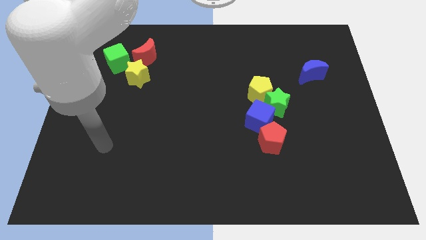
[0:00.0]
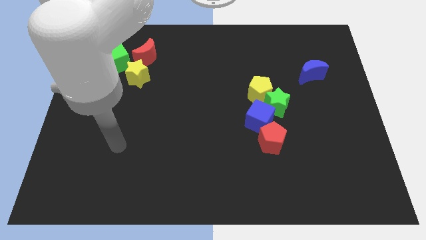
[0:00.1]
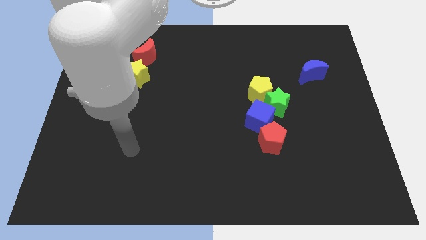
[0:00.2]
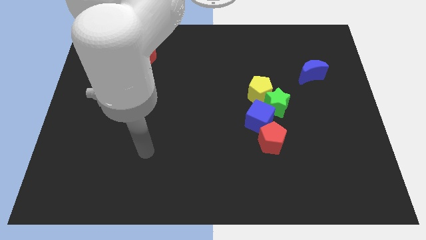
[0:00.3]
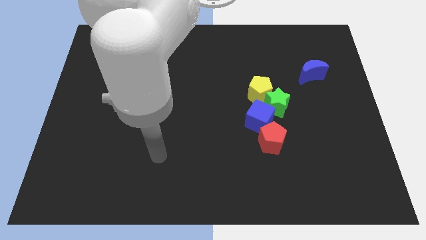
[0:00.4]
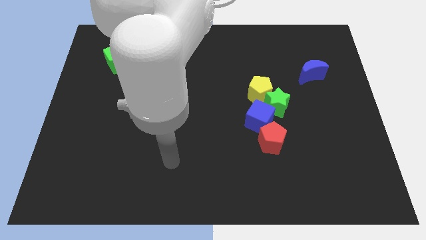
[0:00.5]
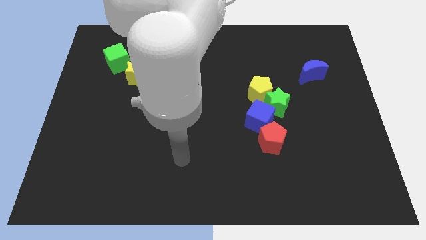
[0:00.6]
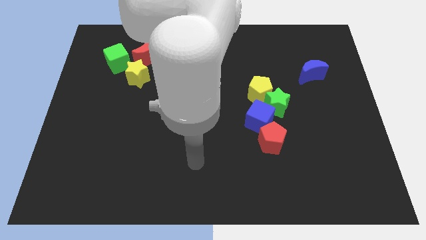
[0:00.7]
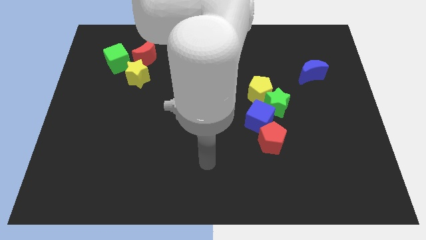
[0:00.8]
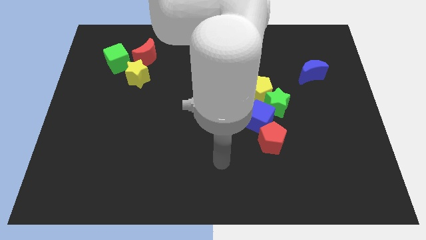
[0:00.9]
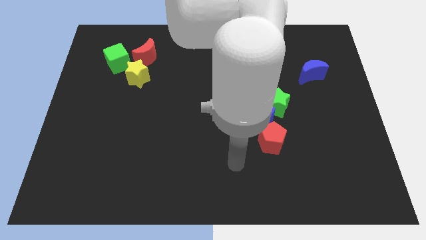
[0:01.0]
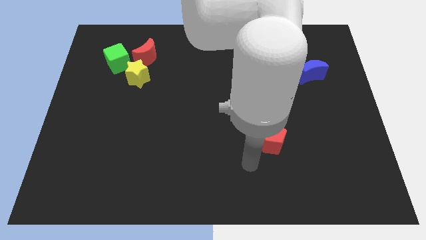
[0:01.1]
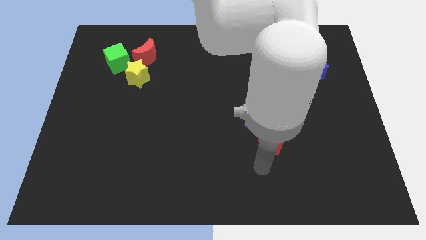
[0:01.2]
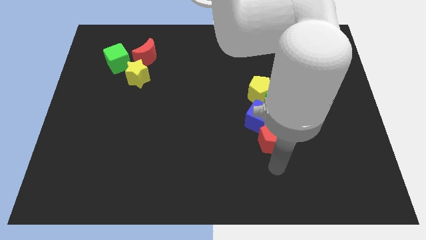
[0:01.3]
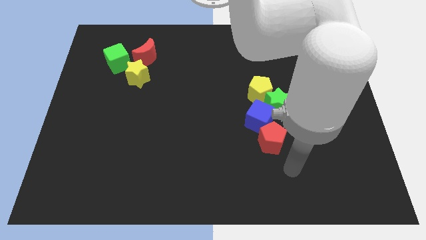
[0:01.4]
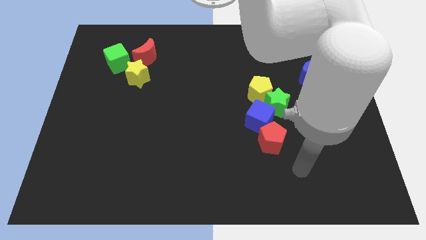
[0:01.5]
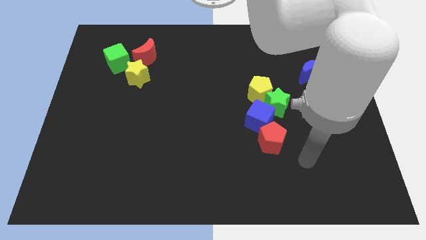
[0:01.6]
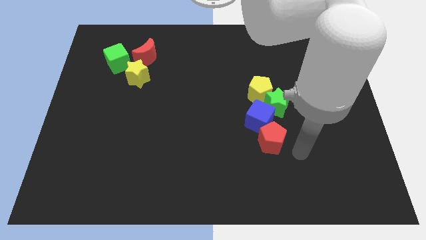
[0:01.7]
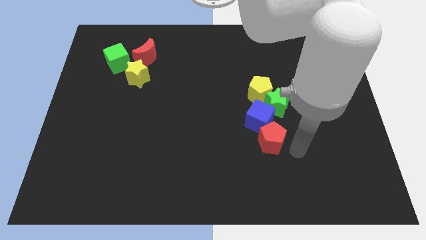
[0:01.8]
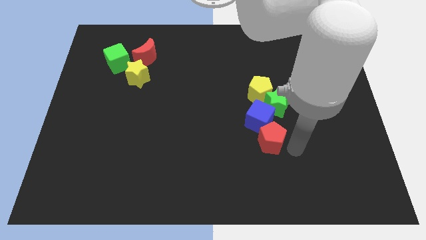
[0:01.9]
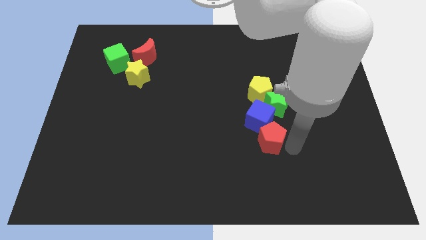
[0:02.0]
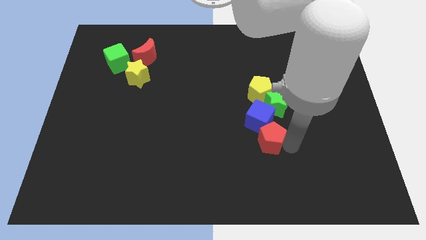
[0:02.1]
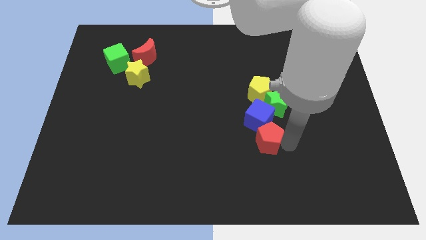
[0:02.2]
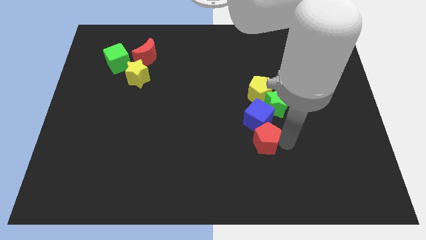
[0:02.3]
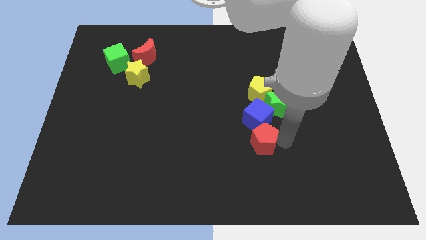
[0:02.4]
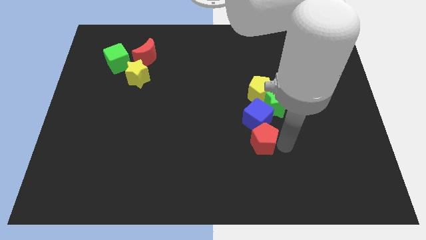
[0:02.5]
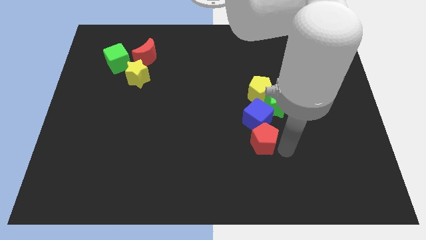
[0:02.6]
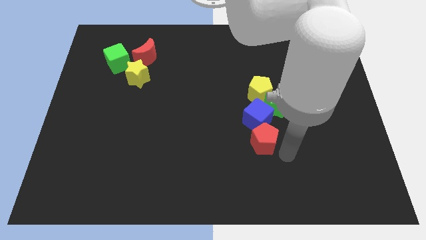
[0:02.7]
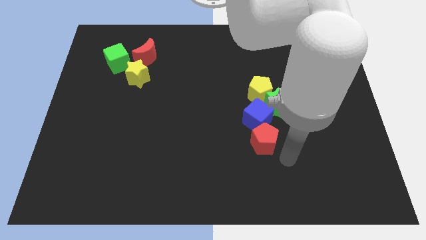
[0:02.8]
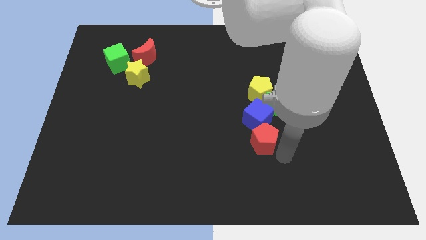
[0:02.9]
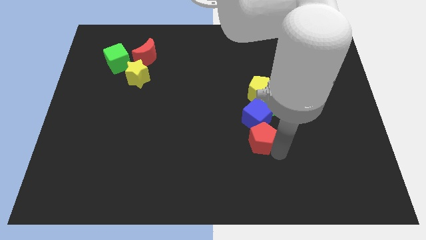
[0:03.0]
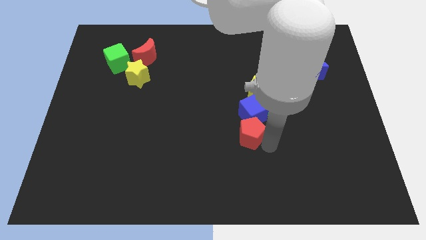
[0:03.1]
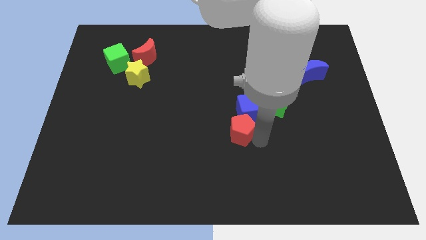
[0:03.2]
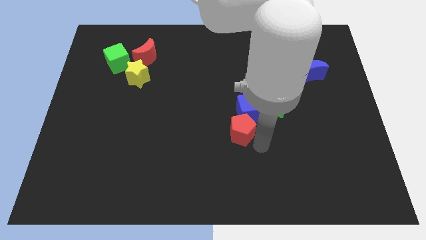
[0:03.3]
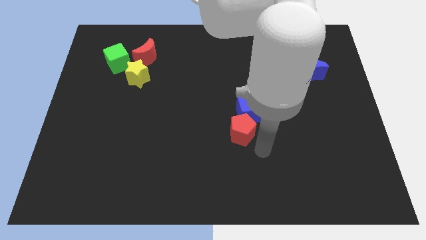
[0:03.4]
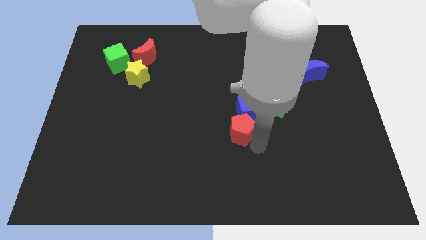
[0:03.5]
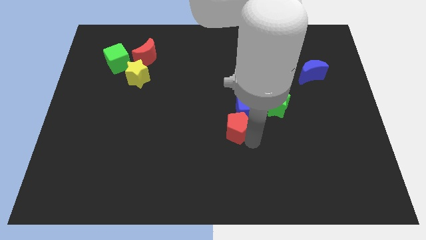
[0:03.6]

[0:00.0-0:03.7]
slightly move the red pentagon upwards and left

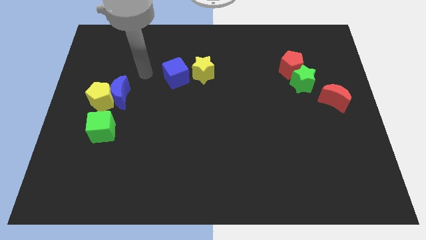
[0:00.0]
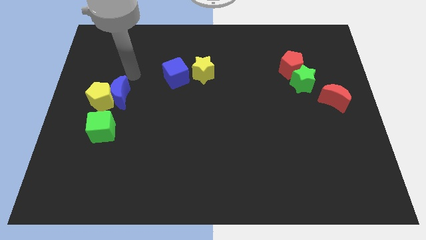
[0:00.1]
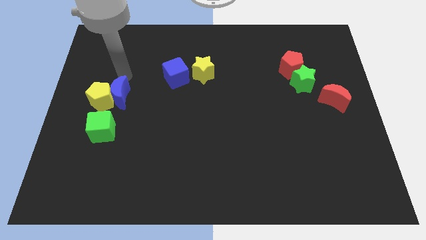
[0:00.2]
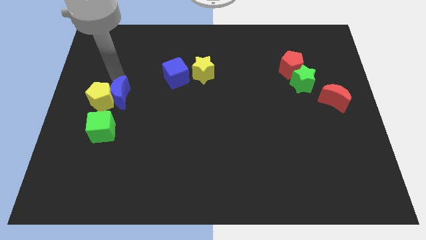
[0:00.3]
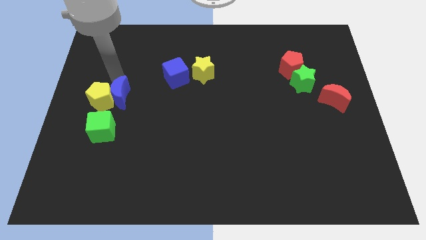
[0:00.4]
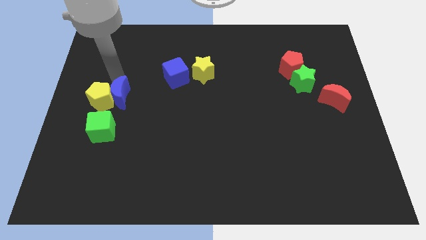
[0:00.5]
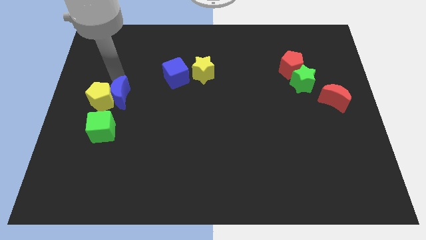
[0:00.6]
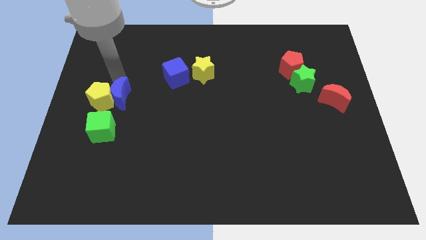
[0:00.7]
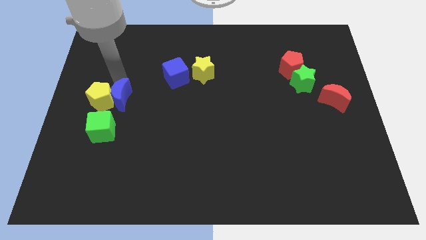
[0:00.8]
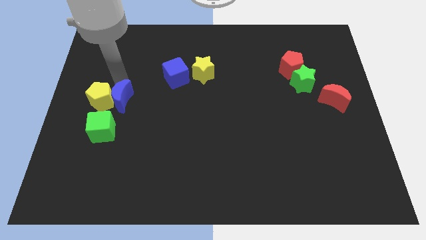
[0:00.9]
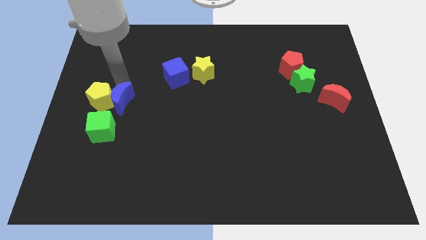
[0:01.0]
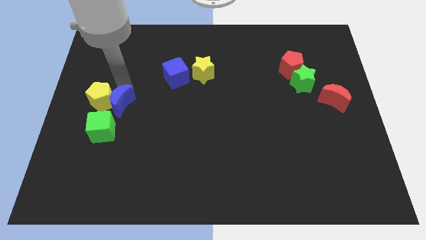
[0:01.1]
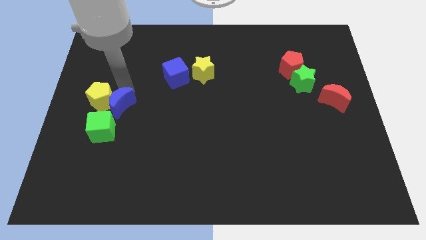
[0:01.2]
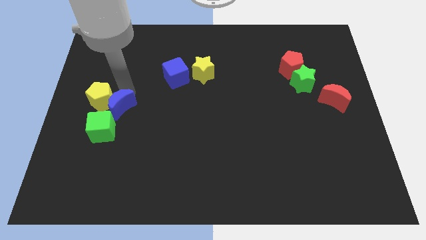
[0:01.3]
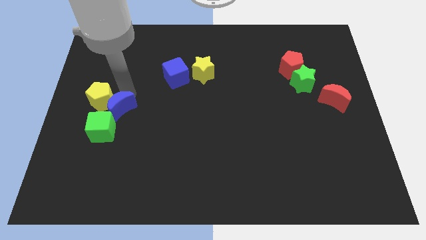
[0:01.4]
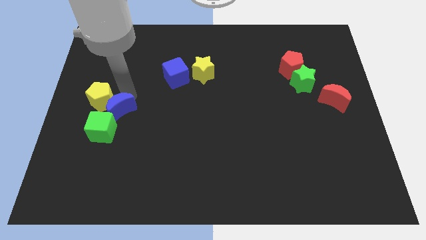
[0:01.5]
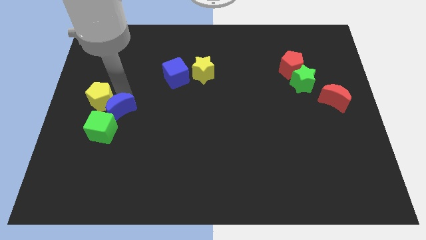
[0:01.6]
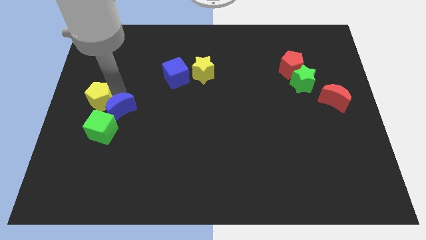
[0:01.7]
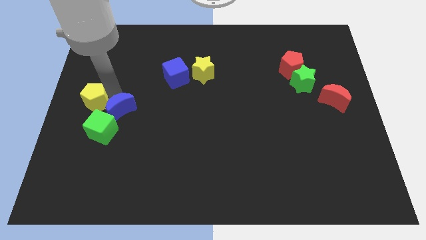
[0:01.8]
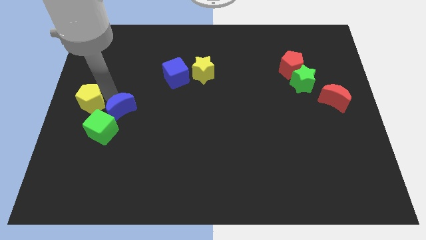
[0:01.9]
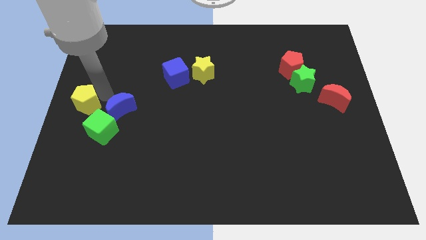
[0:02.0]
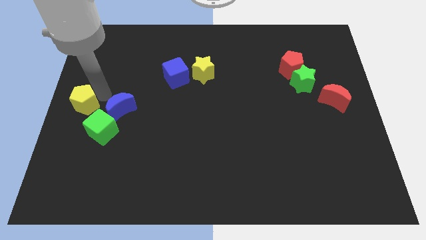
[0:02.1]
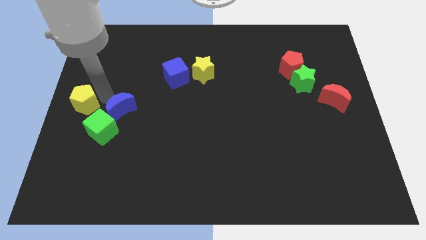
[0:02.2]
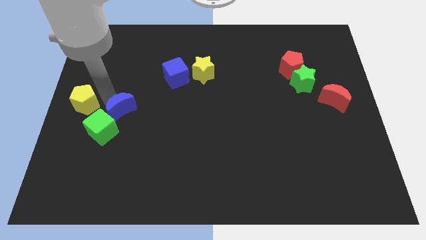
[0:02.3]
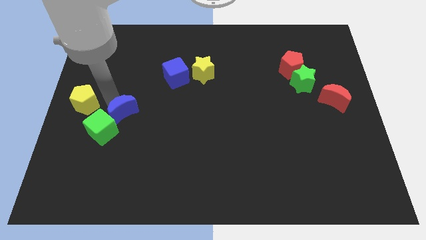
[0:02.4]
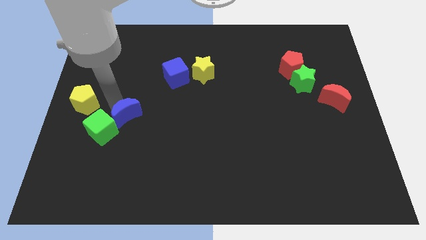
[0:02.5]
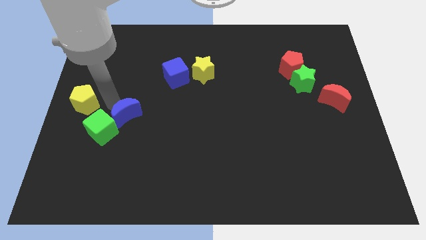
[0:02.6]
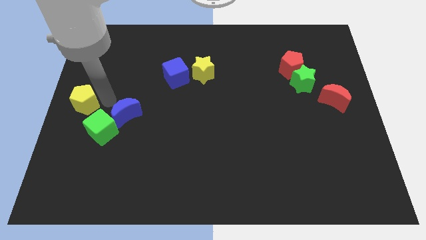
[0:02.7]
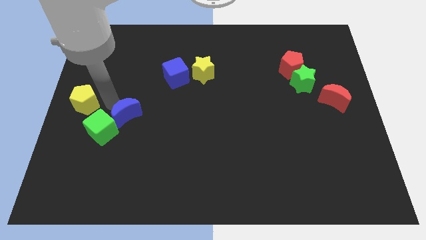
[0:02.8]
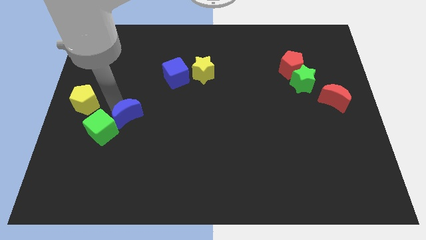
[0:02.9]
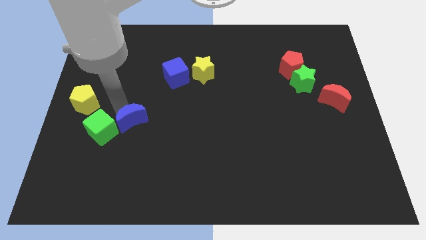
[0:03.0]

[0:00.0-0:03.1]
slightly move the blue moon down and then to the right

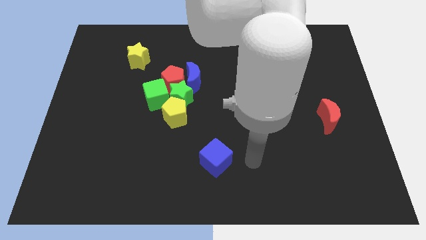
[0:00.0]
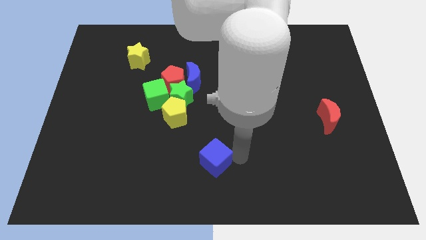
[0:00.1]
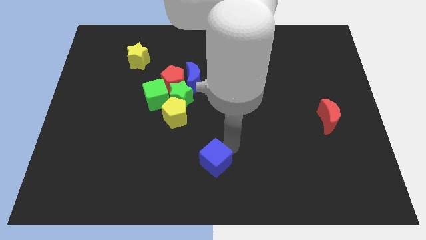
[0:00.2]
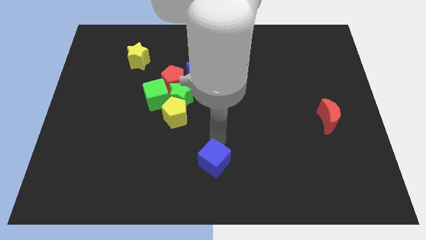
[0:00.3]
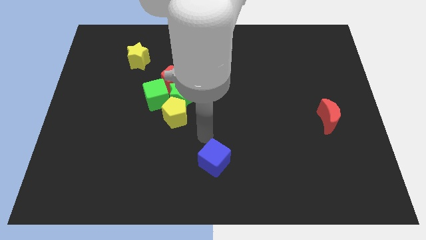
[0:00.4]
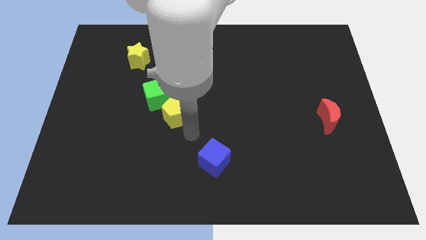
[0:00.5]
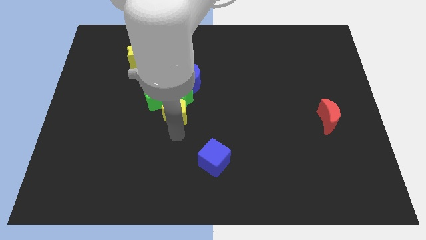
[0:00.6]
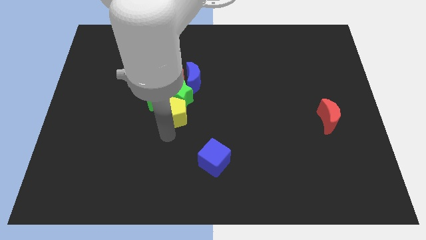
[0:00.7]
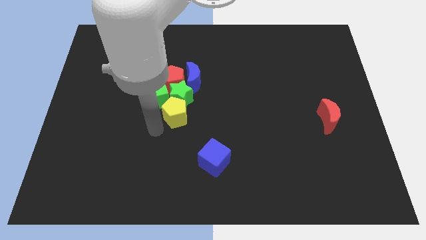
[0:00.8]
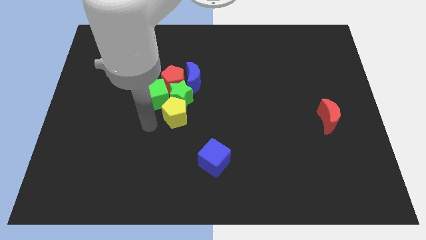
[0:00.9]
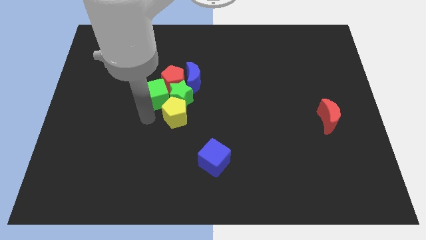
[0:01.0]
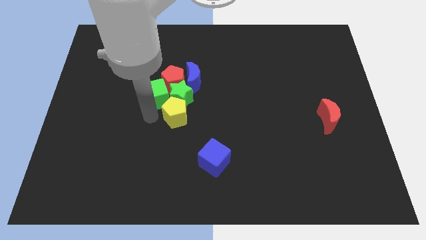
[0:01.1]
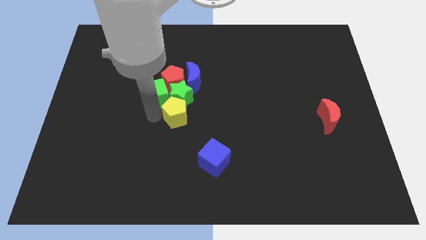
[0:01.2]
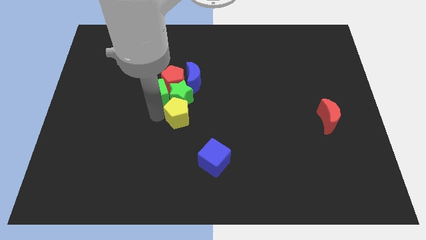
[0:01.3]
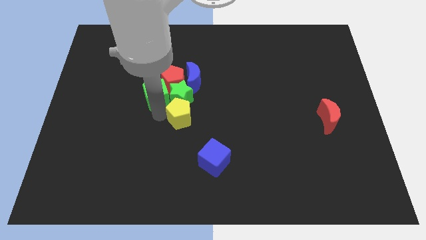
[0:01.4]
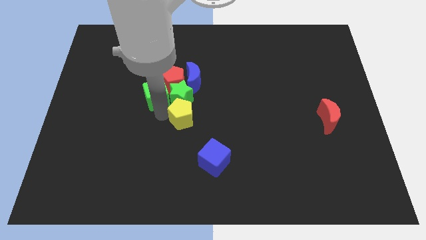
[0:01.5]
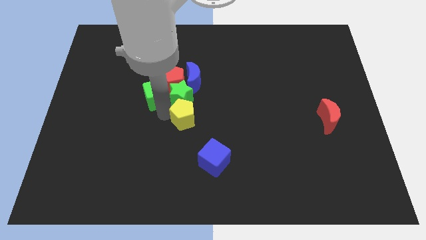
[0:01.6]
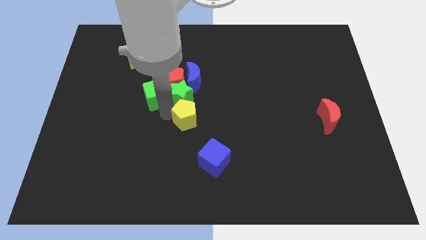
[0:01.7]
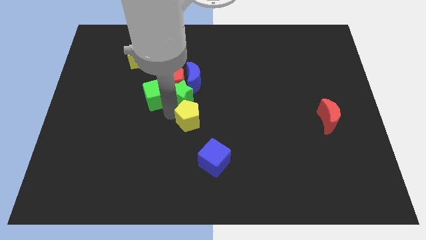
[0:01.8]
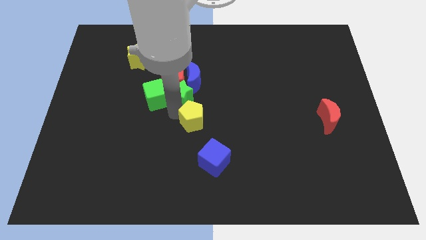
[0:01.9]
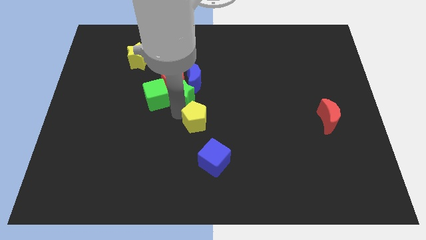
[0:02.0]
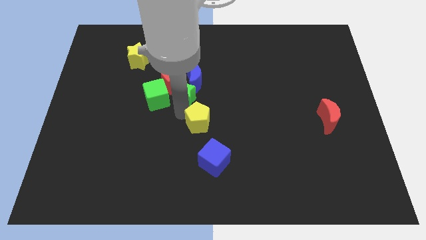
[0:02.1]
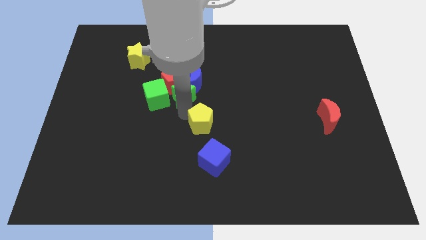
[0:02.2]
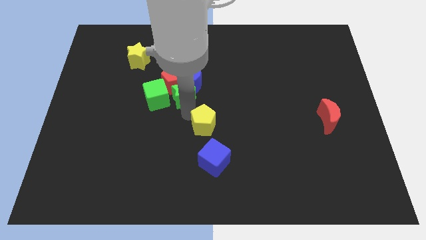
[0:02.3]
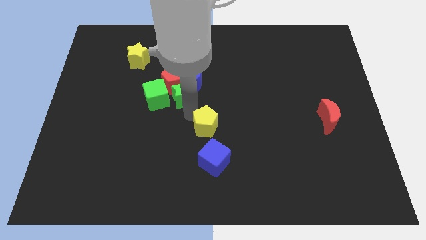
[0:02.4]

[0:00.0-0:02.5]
slide the yellow pentagon a bit to the right
